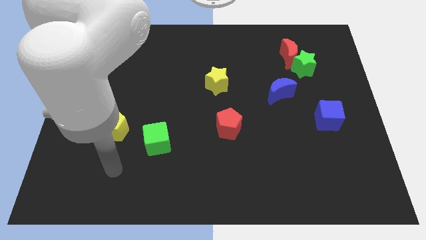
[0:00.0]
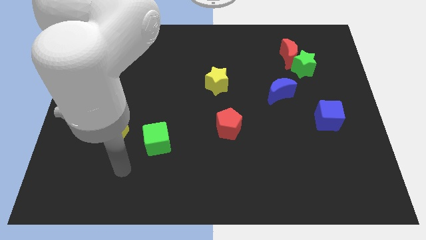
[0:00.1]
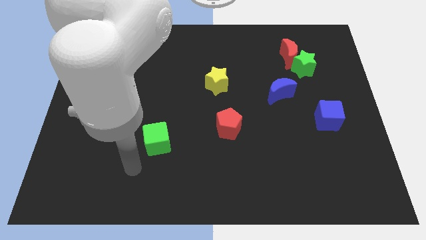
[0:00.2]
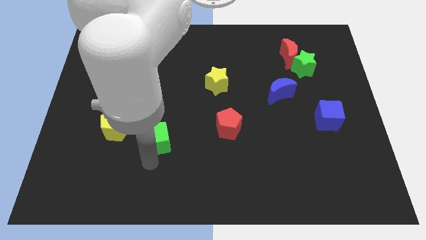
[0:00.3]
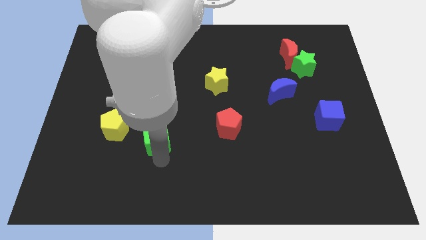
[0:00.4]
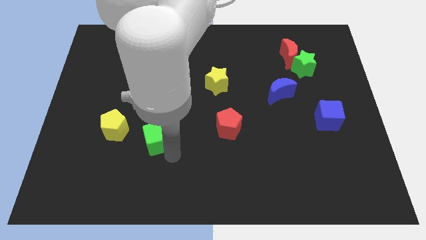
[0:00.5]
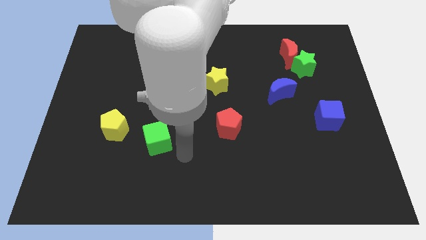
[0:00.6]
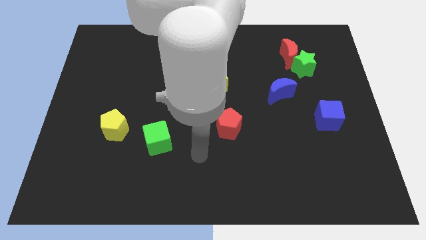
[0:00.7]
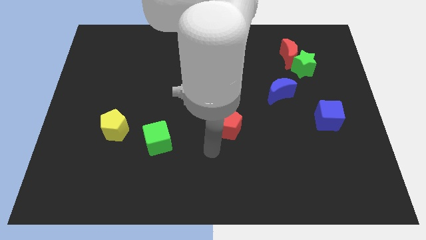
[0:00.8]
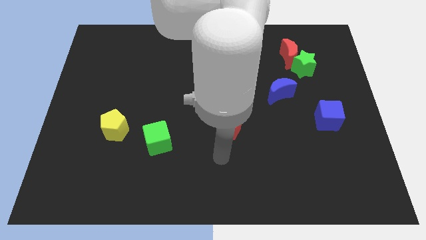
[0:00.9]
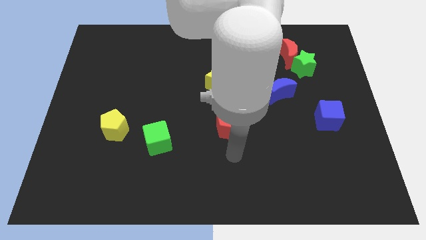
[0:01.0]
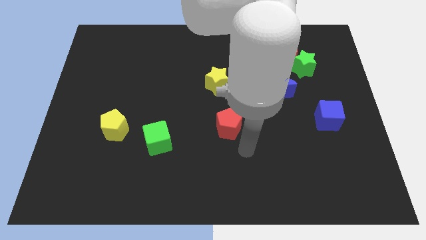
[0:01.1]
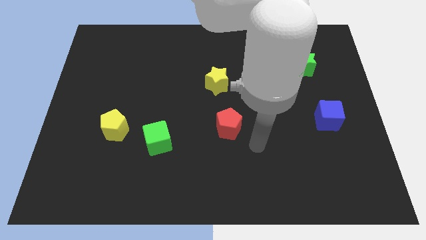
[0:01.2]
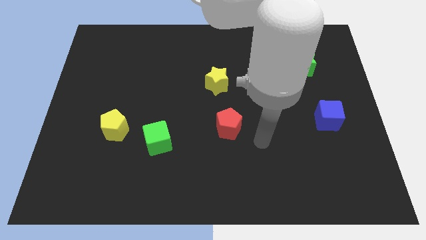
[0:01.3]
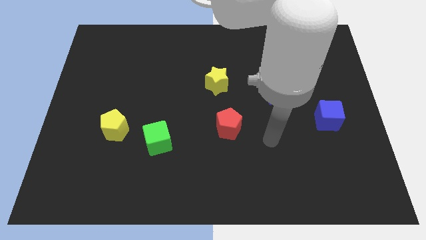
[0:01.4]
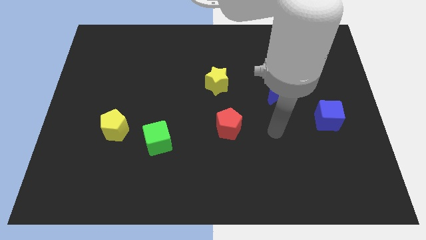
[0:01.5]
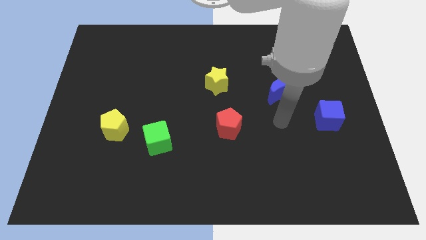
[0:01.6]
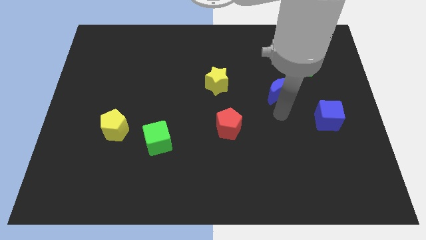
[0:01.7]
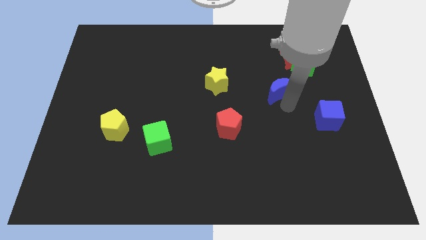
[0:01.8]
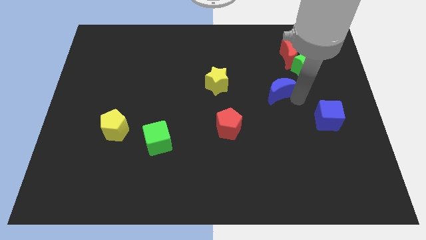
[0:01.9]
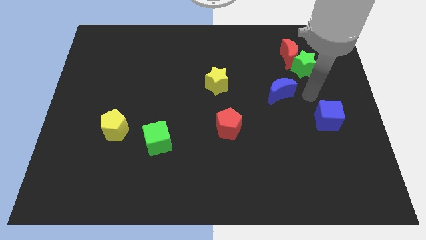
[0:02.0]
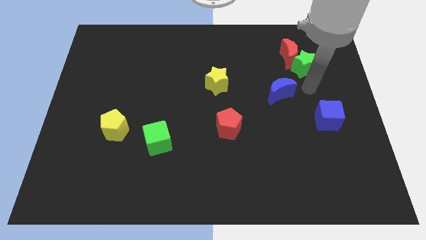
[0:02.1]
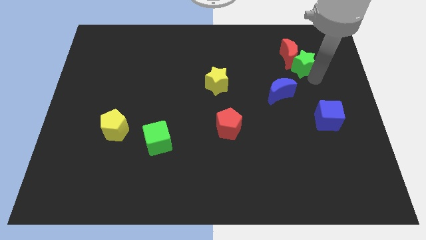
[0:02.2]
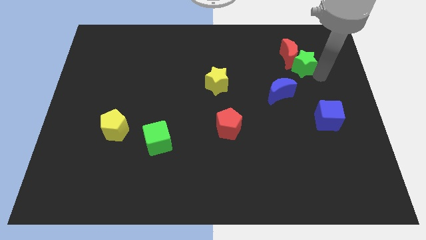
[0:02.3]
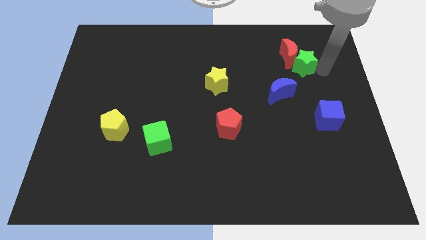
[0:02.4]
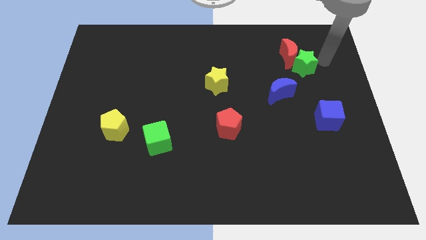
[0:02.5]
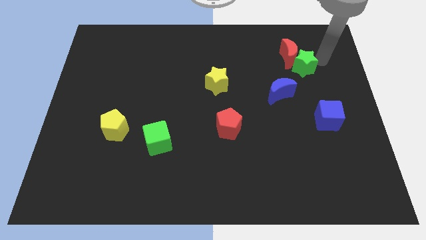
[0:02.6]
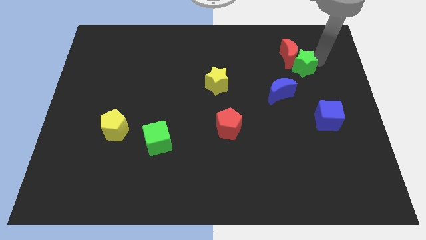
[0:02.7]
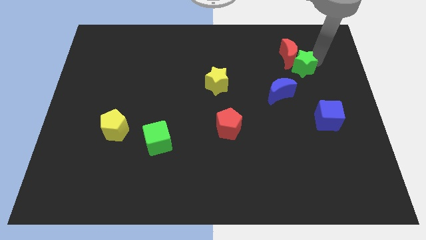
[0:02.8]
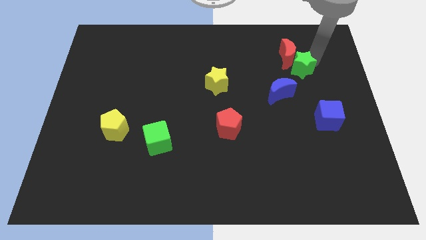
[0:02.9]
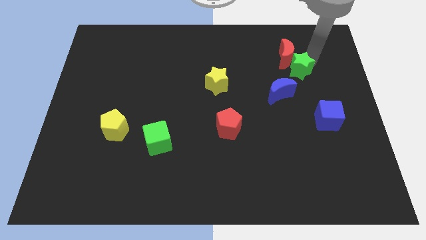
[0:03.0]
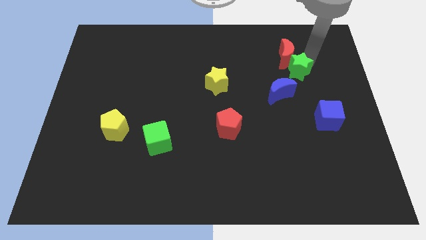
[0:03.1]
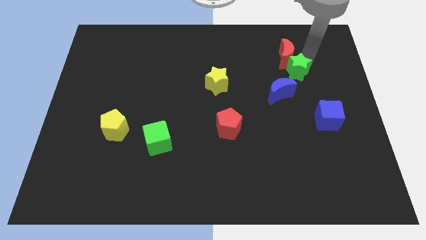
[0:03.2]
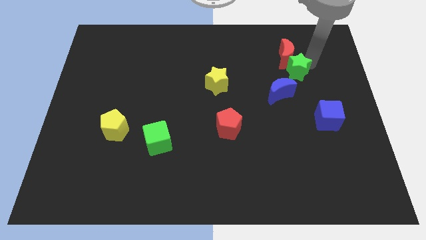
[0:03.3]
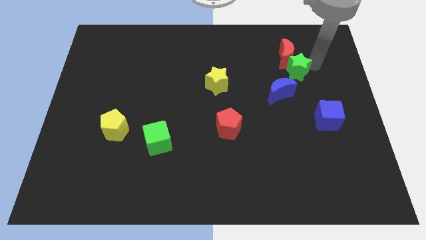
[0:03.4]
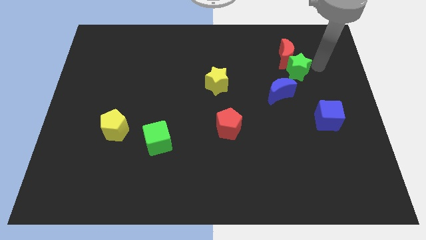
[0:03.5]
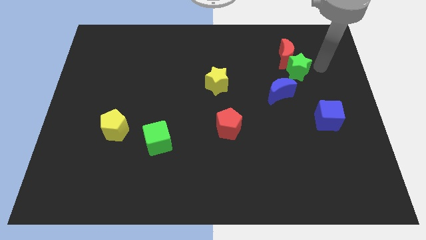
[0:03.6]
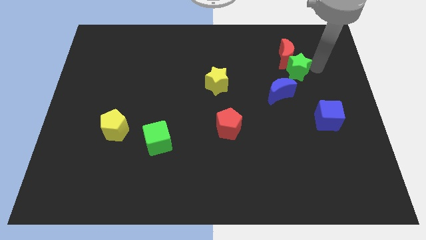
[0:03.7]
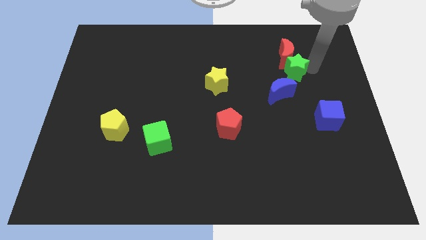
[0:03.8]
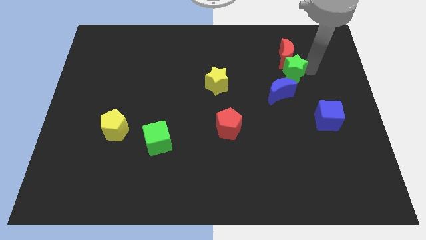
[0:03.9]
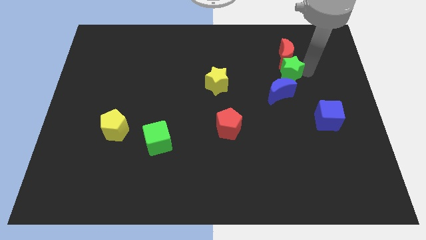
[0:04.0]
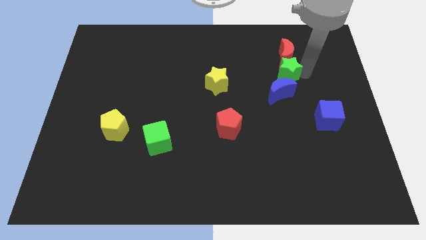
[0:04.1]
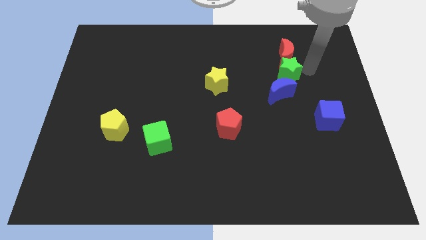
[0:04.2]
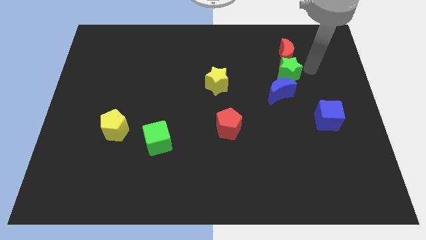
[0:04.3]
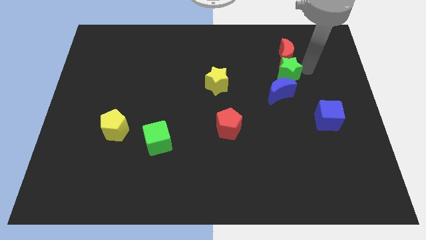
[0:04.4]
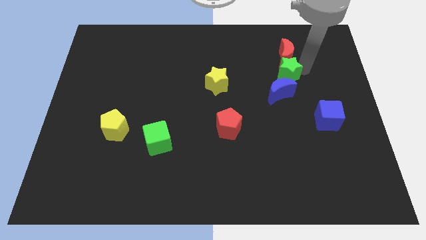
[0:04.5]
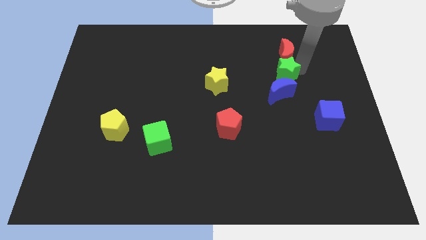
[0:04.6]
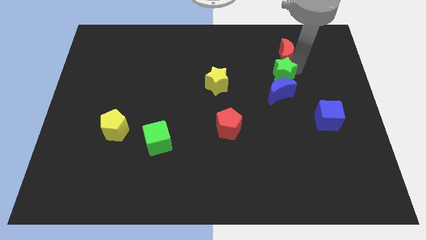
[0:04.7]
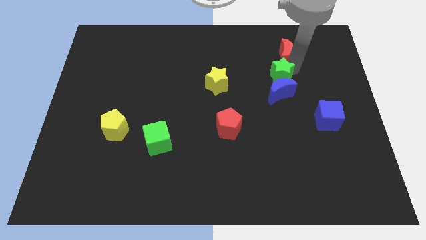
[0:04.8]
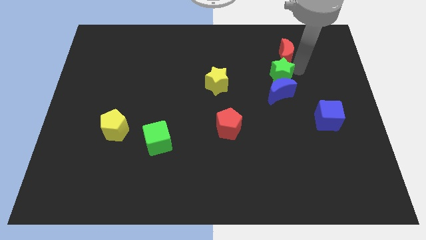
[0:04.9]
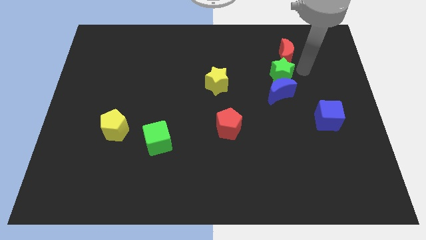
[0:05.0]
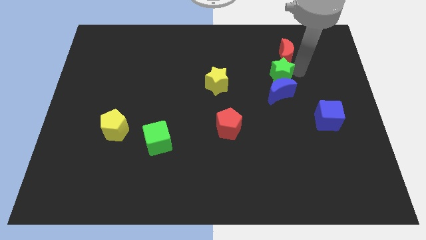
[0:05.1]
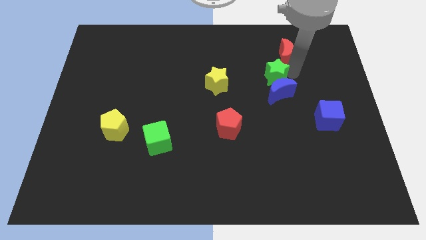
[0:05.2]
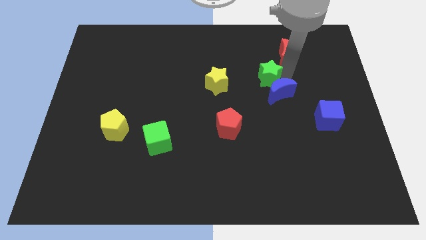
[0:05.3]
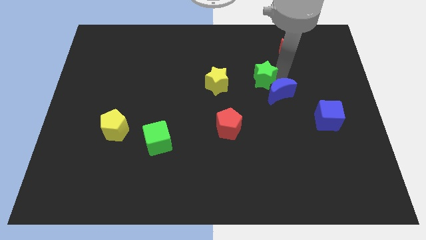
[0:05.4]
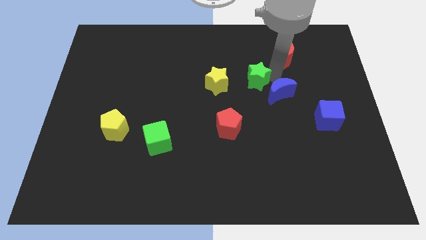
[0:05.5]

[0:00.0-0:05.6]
put the green star to the middle

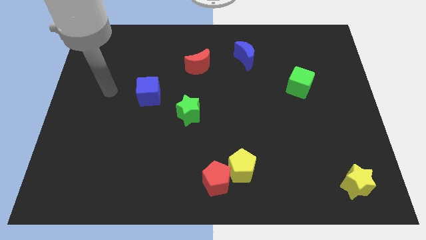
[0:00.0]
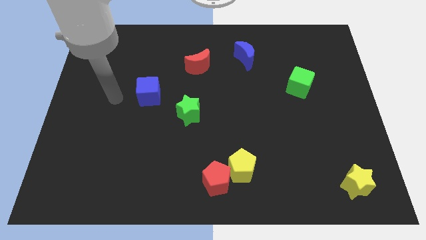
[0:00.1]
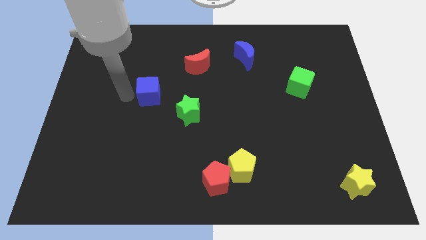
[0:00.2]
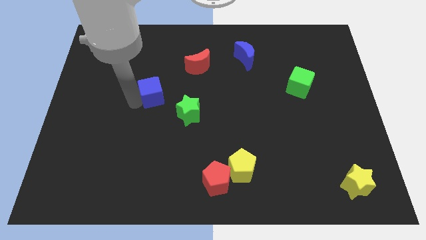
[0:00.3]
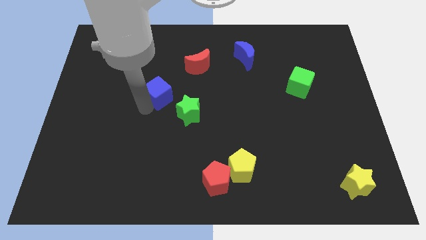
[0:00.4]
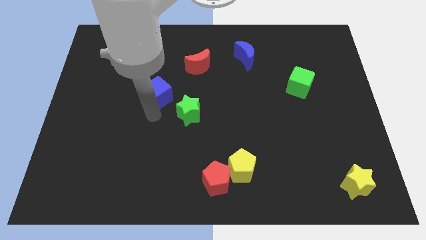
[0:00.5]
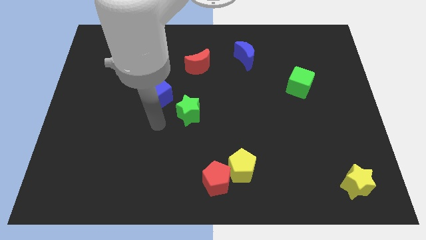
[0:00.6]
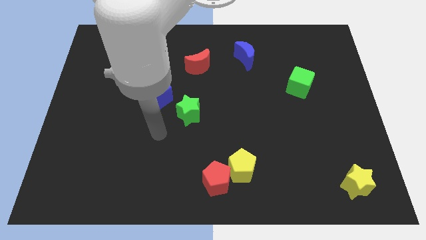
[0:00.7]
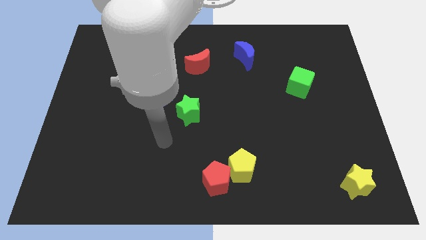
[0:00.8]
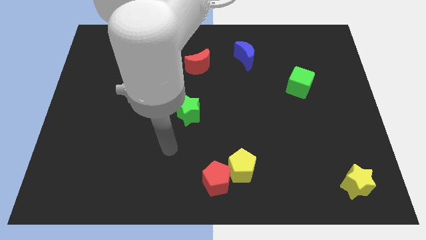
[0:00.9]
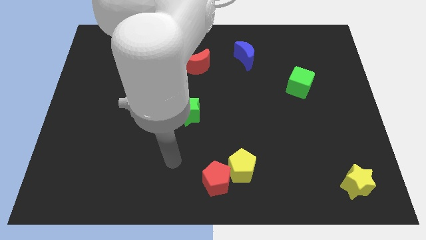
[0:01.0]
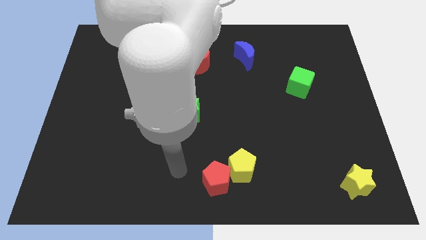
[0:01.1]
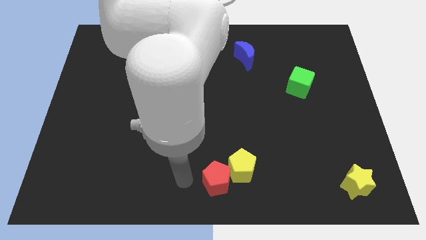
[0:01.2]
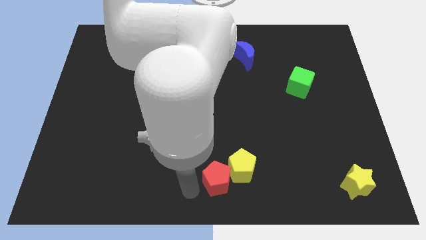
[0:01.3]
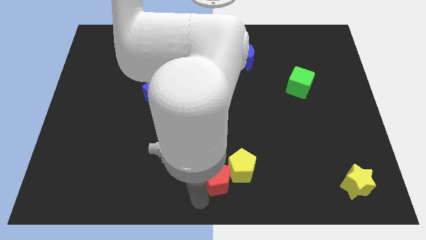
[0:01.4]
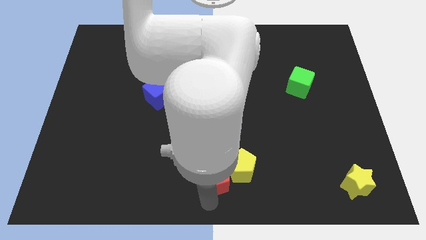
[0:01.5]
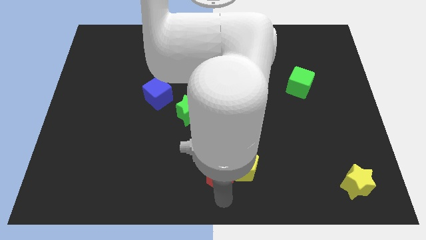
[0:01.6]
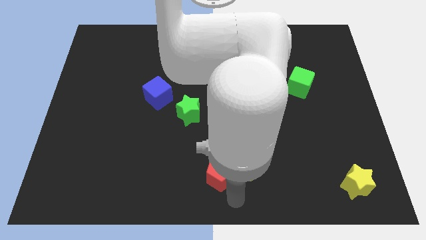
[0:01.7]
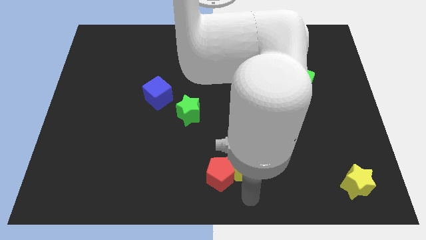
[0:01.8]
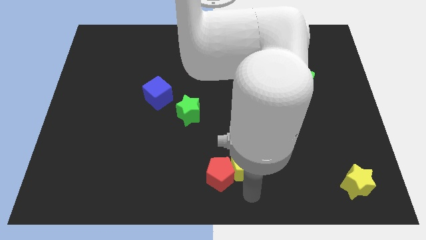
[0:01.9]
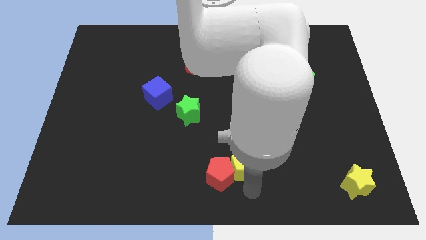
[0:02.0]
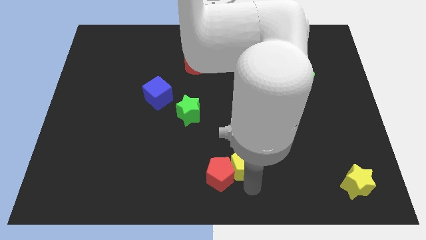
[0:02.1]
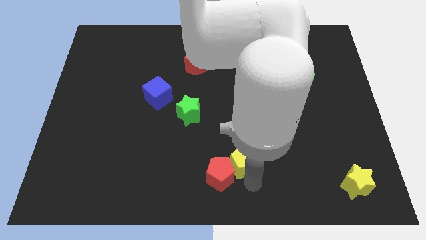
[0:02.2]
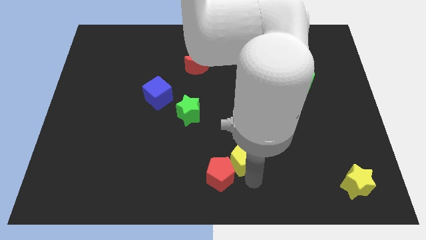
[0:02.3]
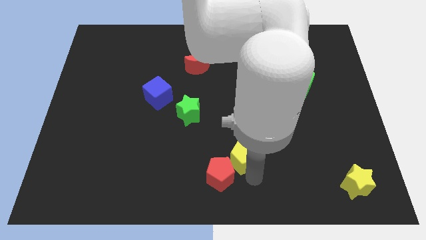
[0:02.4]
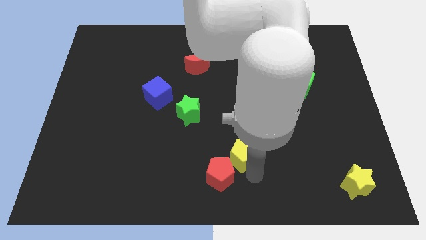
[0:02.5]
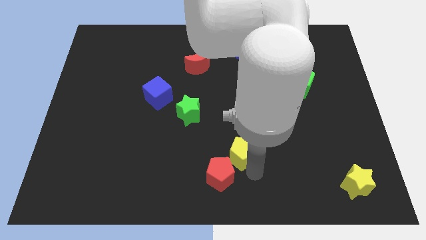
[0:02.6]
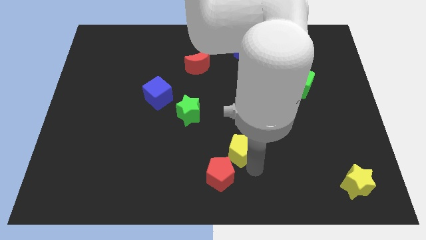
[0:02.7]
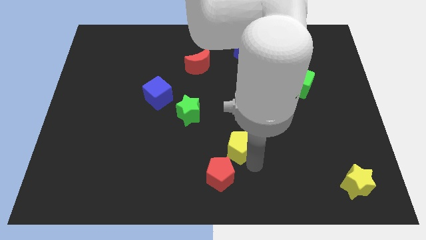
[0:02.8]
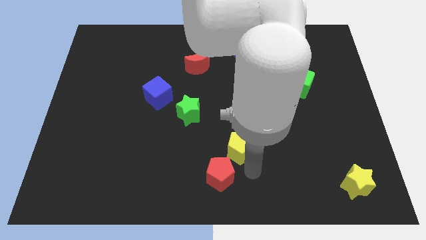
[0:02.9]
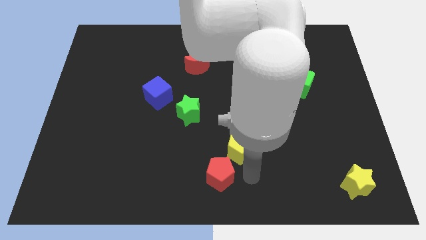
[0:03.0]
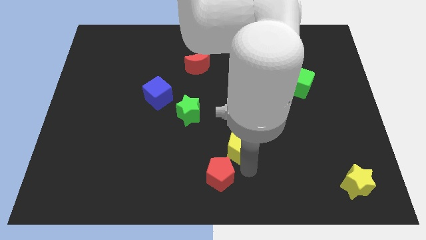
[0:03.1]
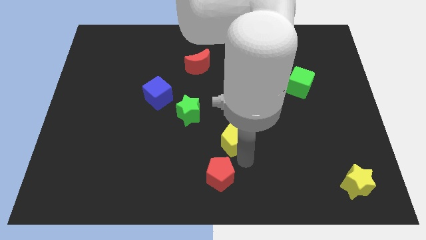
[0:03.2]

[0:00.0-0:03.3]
push the yellow pentagon to the middle of the board
